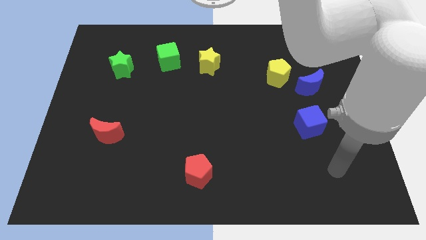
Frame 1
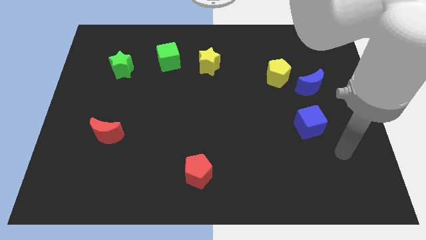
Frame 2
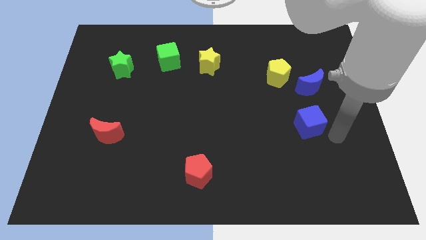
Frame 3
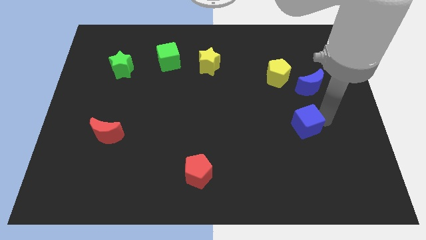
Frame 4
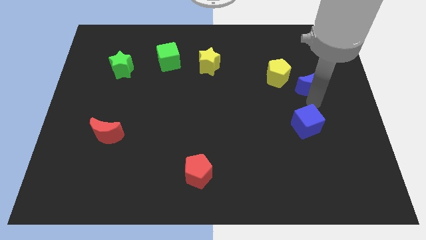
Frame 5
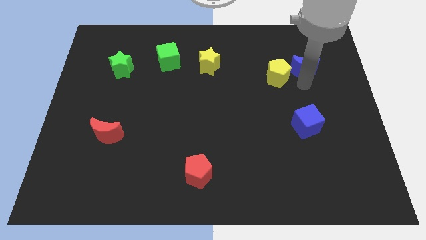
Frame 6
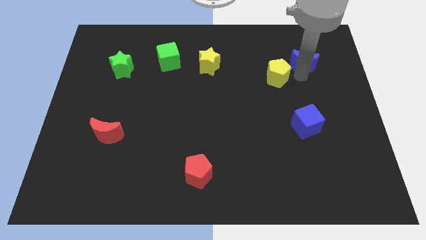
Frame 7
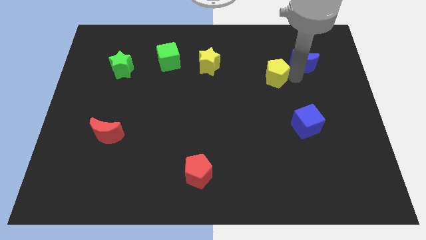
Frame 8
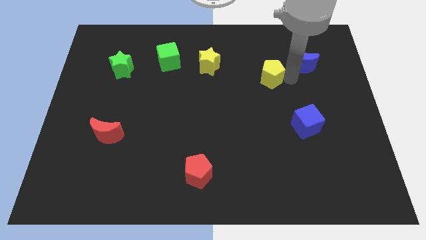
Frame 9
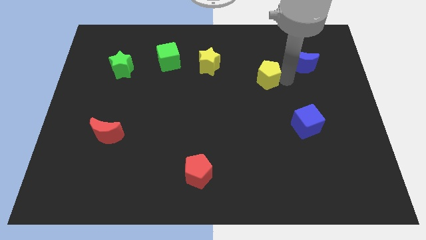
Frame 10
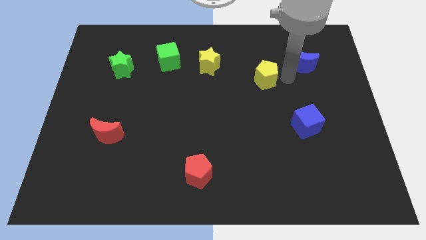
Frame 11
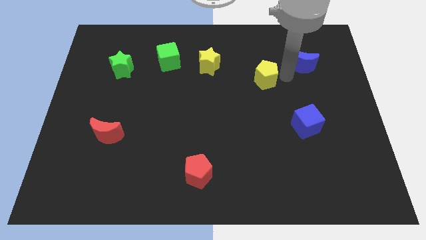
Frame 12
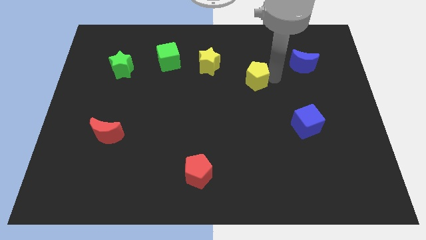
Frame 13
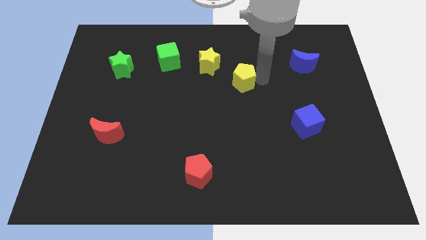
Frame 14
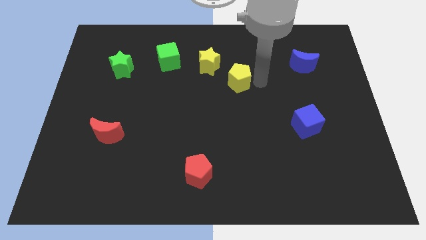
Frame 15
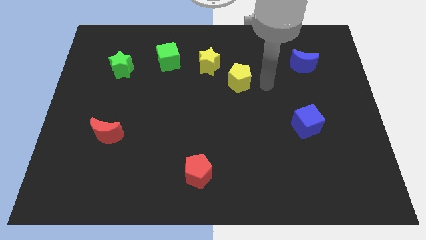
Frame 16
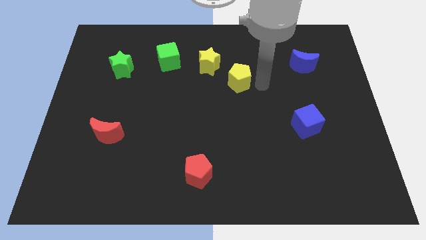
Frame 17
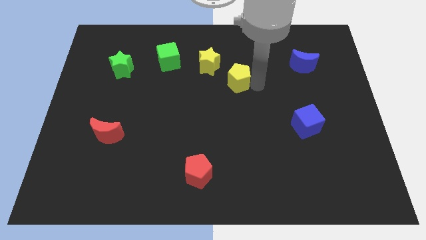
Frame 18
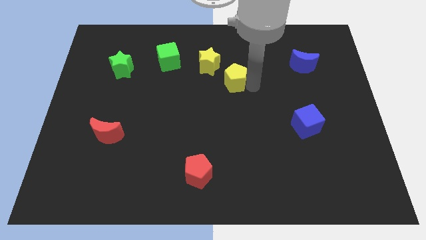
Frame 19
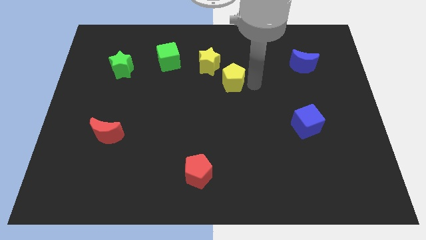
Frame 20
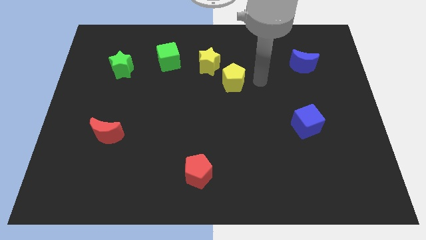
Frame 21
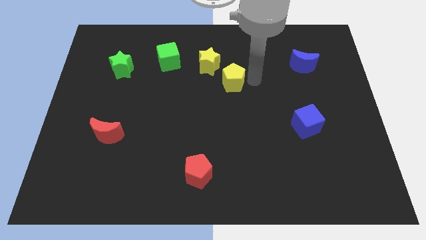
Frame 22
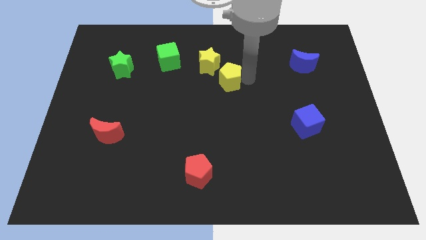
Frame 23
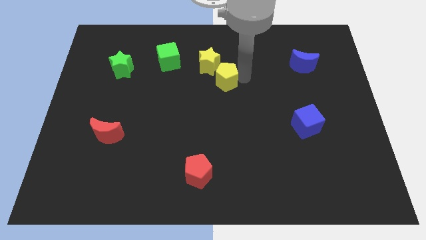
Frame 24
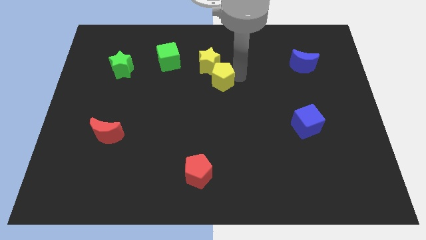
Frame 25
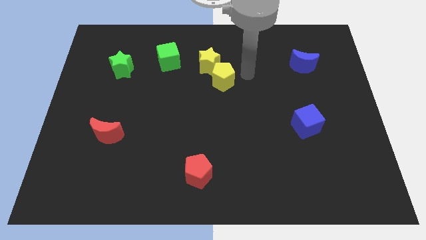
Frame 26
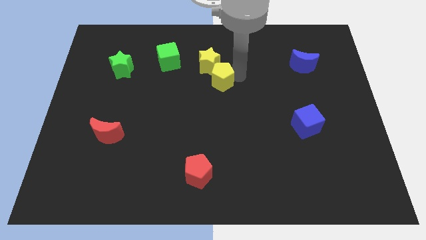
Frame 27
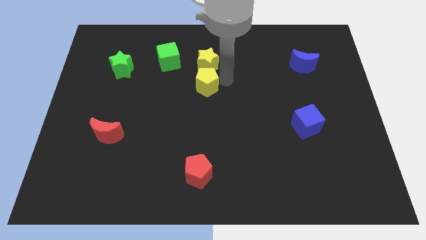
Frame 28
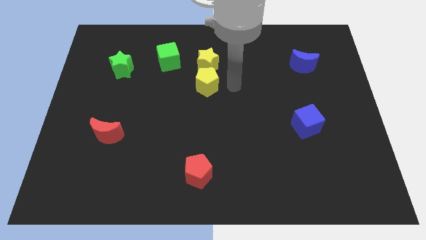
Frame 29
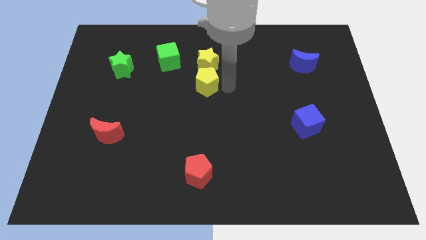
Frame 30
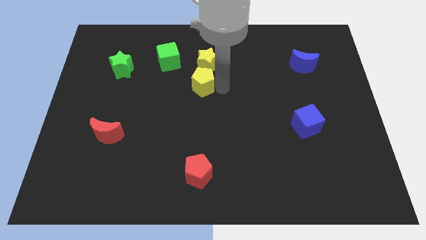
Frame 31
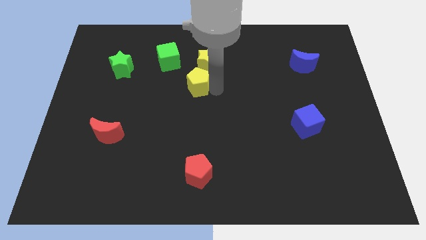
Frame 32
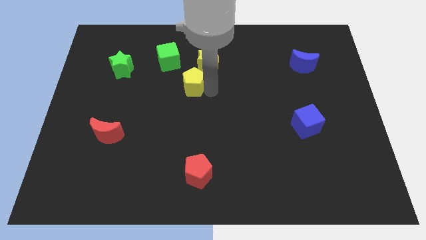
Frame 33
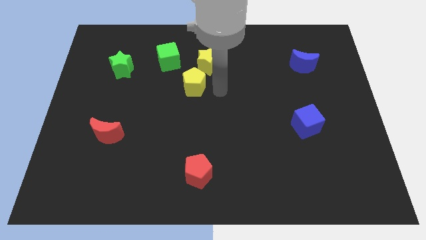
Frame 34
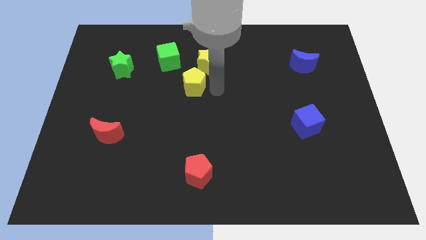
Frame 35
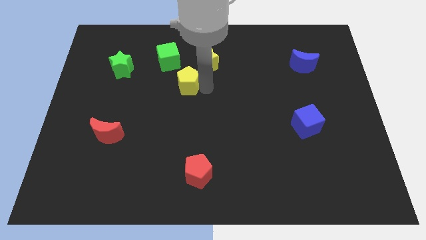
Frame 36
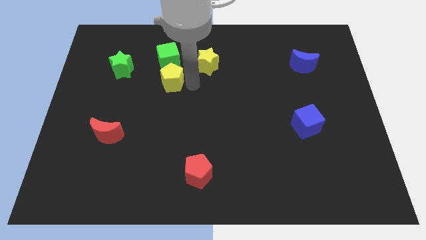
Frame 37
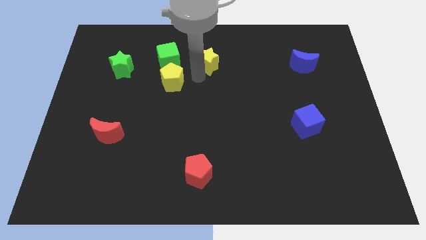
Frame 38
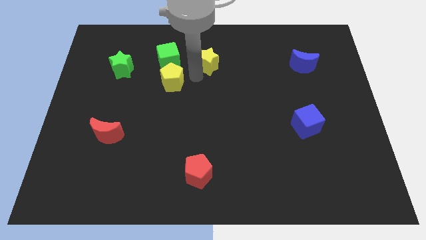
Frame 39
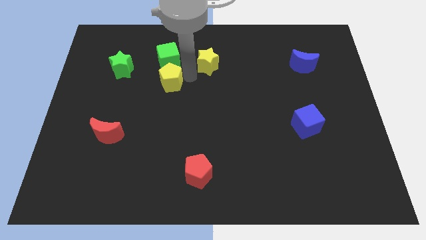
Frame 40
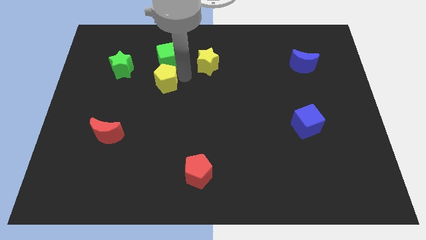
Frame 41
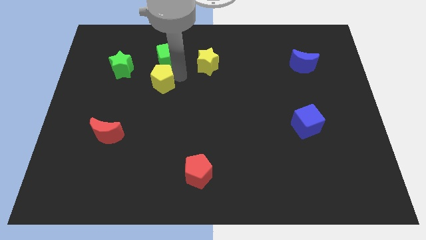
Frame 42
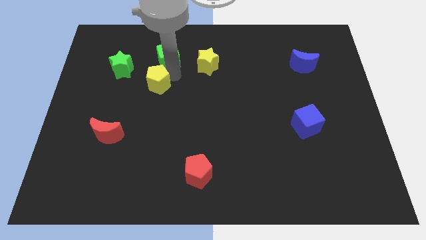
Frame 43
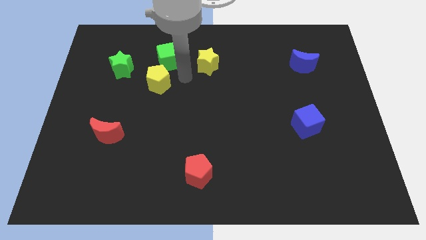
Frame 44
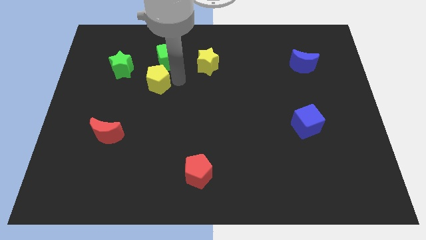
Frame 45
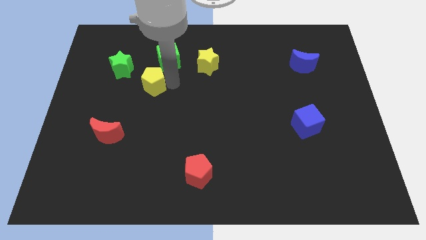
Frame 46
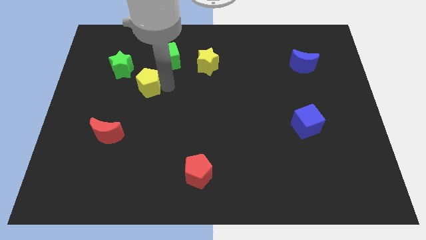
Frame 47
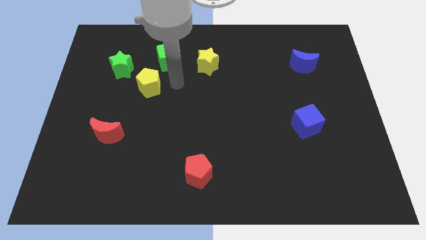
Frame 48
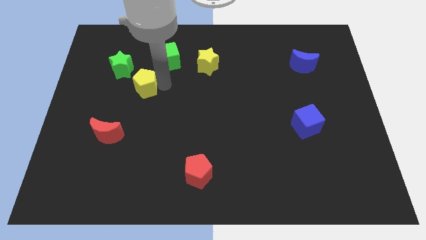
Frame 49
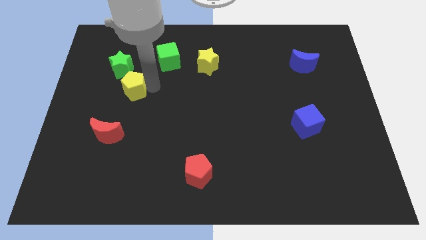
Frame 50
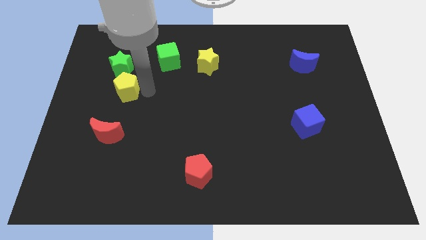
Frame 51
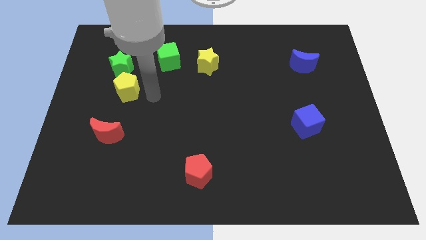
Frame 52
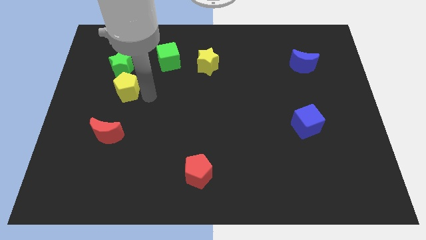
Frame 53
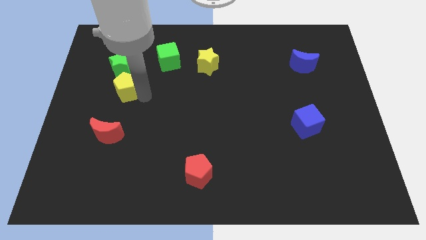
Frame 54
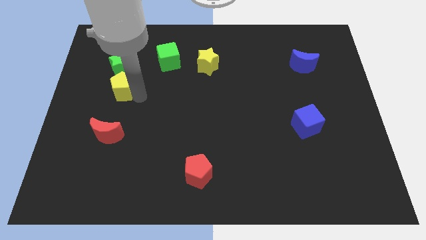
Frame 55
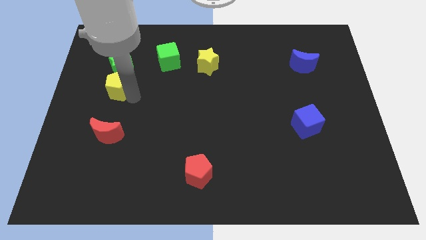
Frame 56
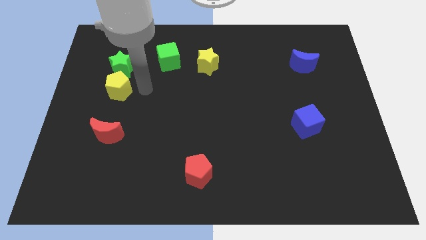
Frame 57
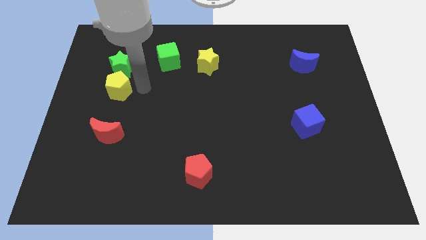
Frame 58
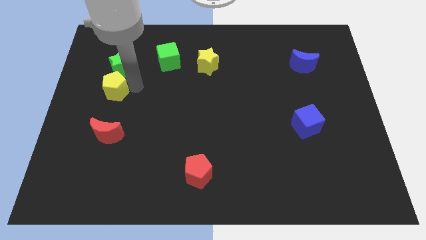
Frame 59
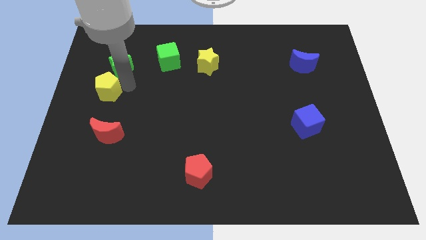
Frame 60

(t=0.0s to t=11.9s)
put the yellow pentagon to the left side of the board
